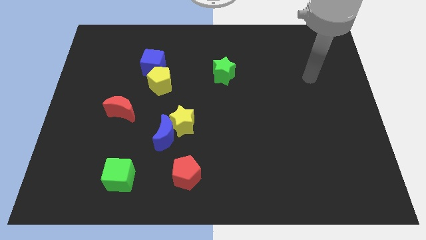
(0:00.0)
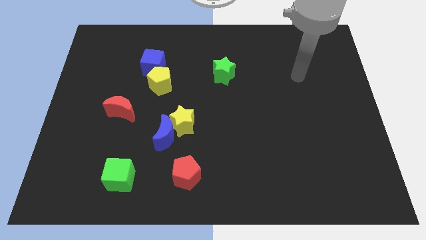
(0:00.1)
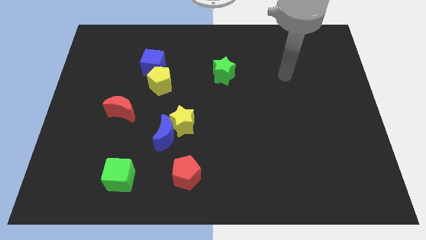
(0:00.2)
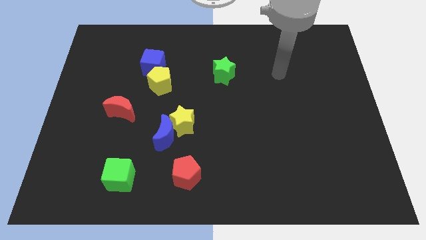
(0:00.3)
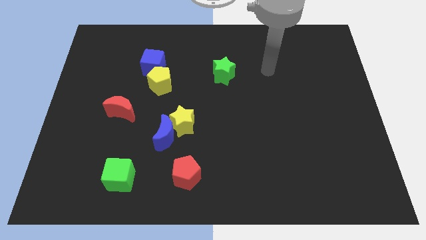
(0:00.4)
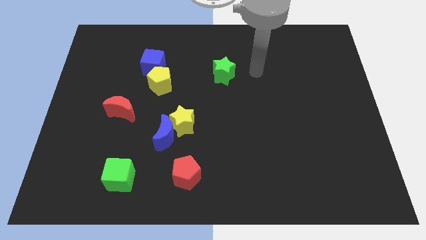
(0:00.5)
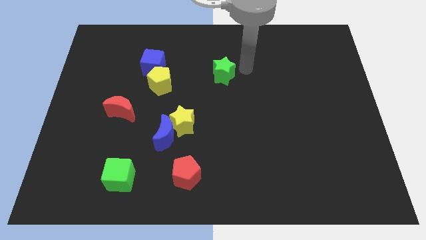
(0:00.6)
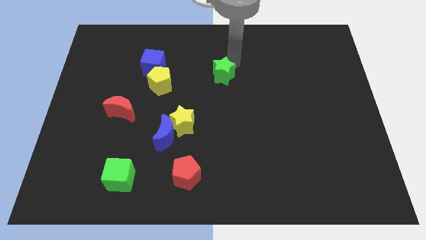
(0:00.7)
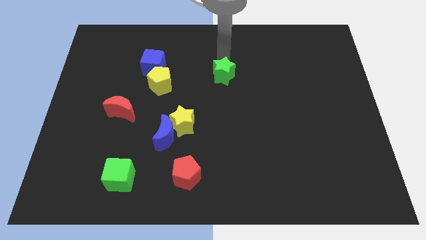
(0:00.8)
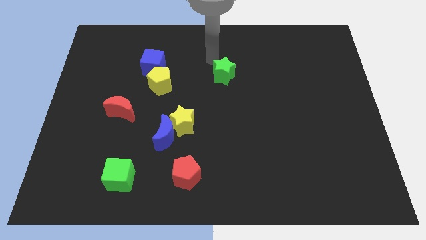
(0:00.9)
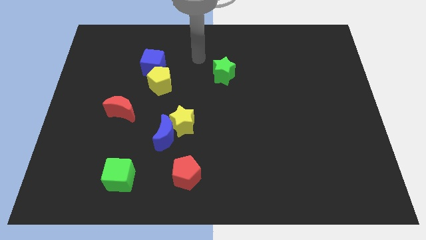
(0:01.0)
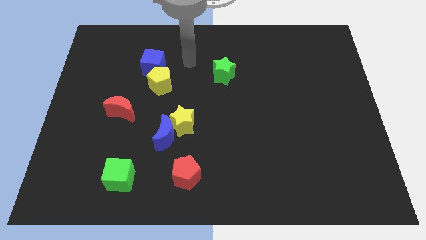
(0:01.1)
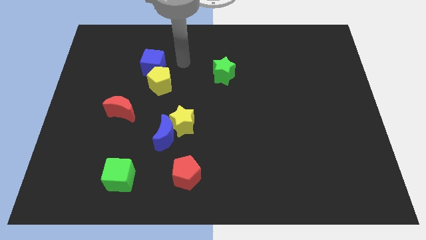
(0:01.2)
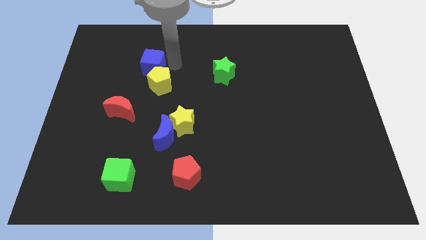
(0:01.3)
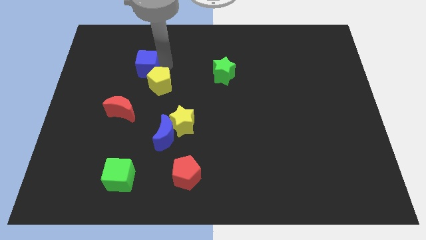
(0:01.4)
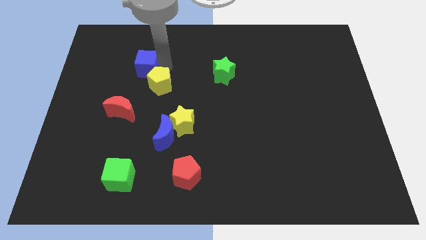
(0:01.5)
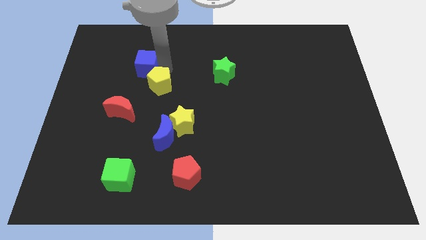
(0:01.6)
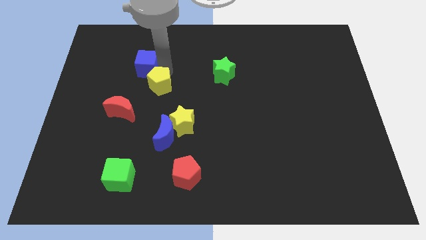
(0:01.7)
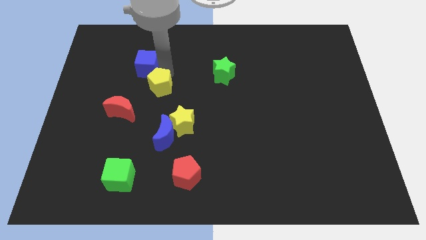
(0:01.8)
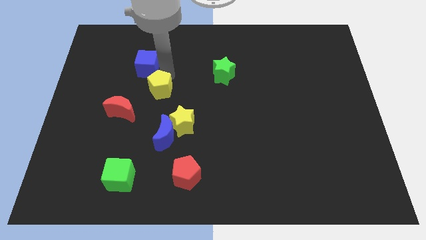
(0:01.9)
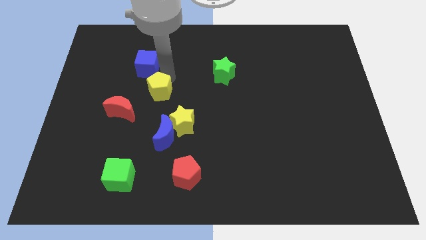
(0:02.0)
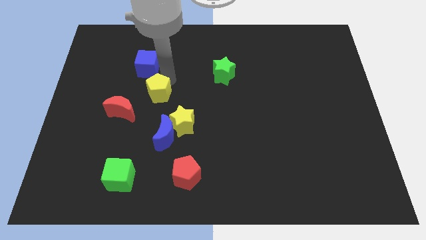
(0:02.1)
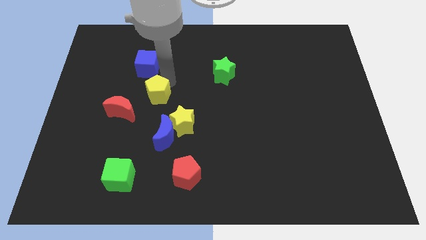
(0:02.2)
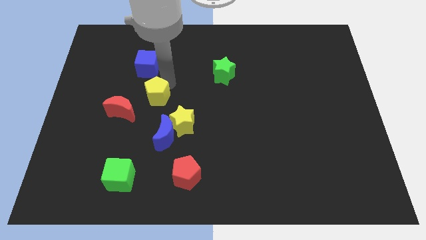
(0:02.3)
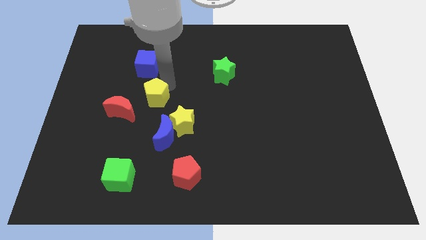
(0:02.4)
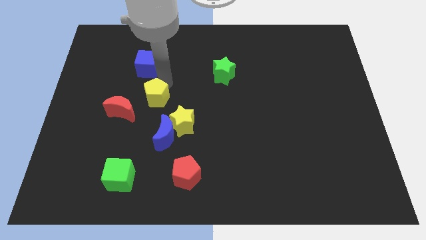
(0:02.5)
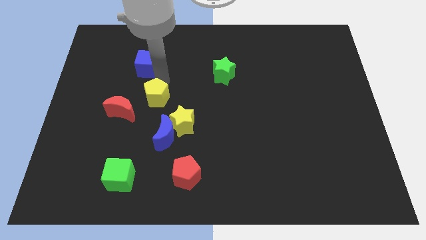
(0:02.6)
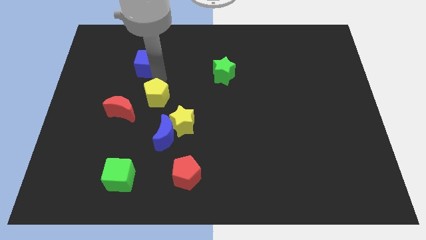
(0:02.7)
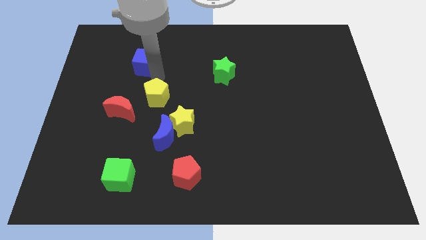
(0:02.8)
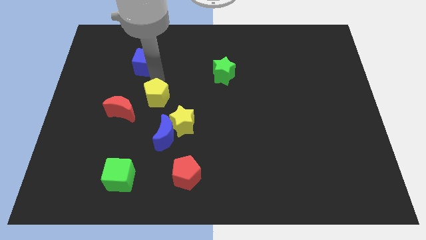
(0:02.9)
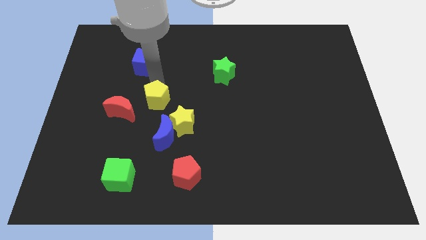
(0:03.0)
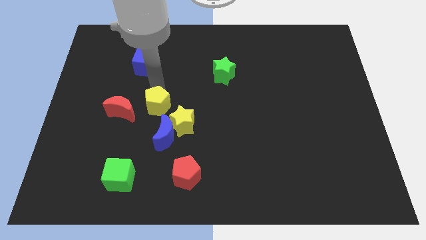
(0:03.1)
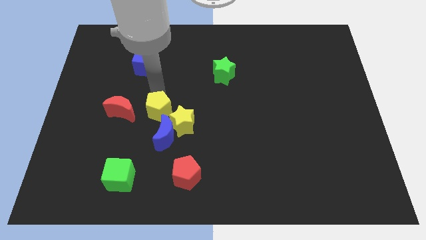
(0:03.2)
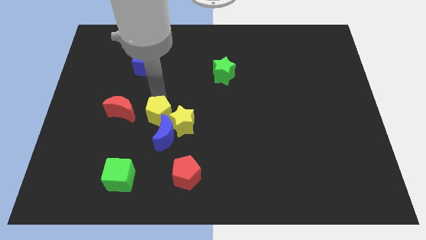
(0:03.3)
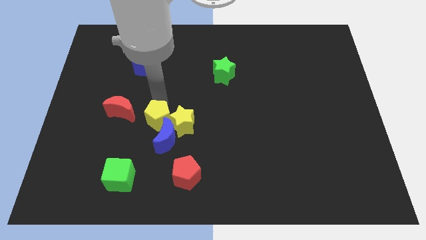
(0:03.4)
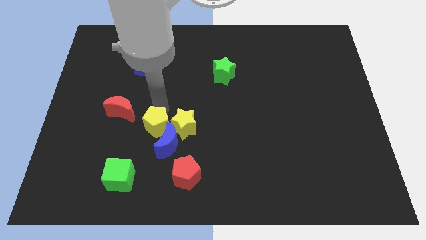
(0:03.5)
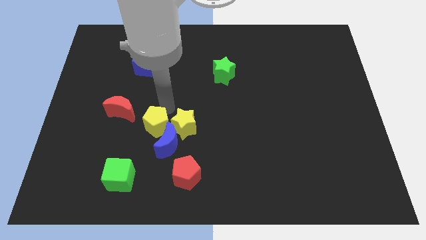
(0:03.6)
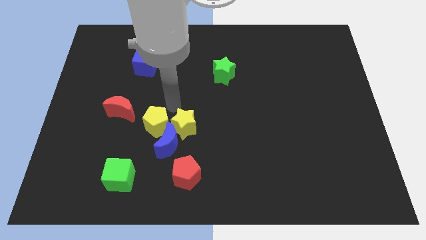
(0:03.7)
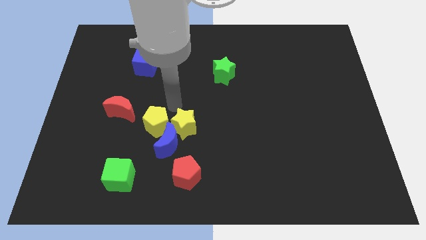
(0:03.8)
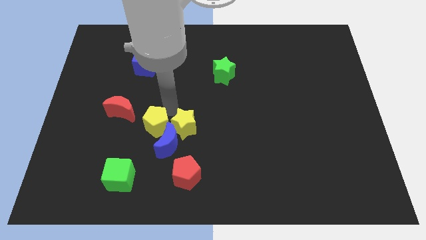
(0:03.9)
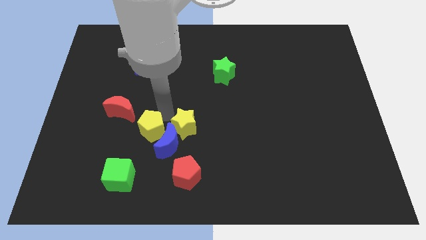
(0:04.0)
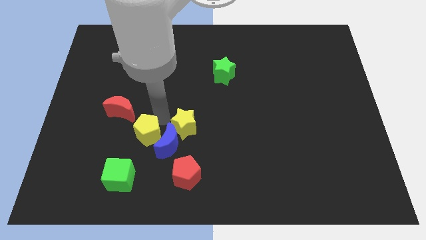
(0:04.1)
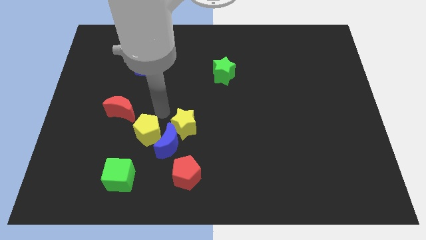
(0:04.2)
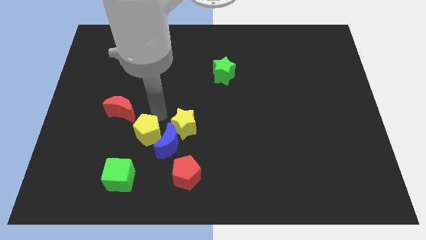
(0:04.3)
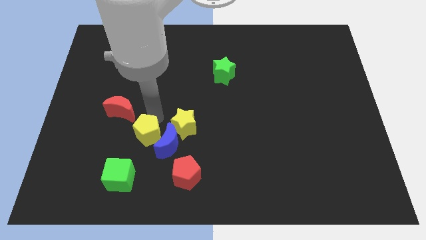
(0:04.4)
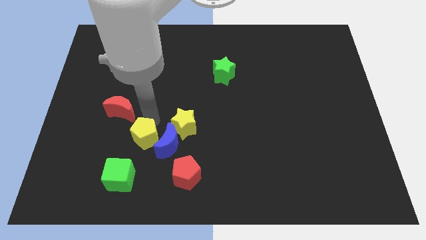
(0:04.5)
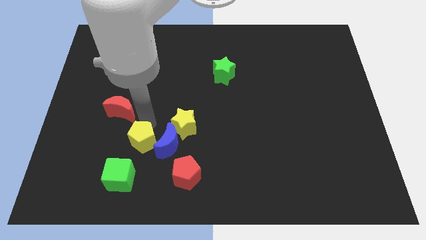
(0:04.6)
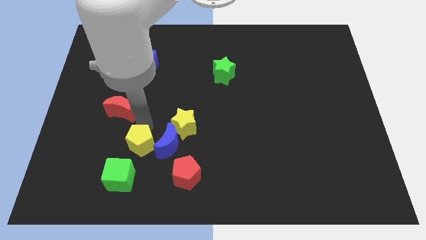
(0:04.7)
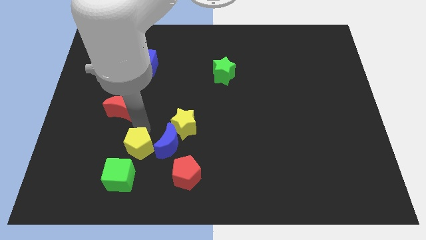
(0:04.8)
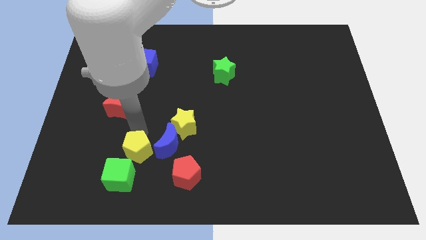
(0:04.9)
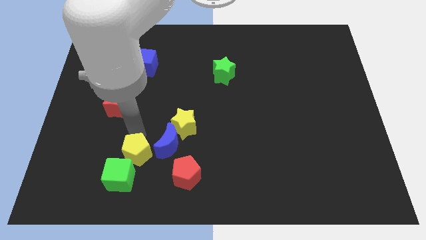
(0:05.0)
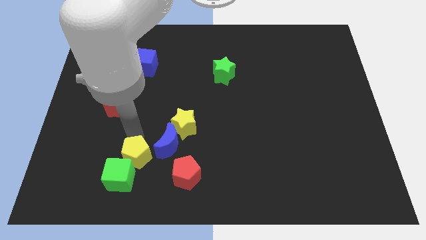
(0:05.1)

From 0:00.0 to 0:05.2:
put the yellow pentagon next to the green cube

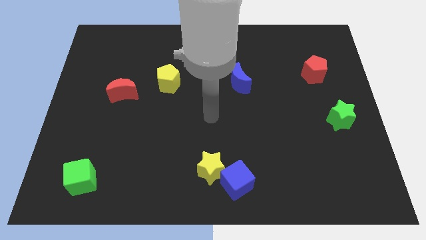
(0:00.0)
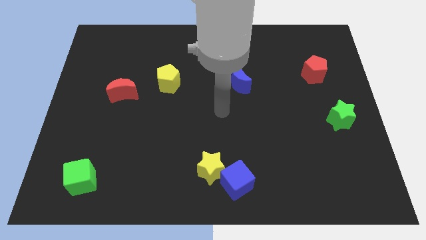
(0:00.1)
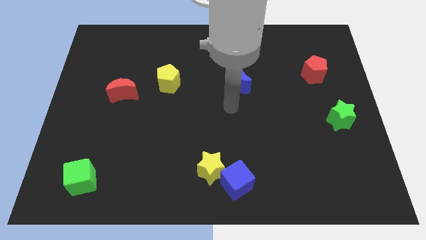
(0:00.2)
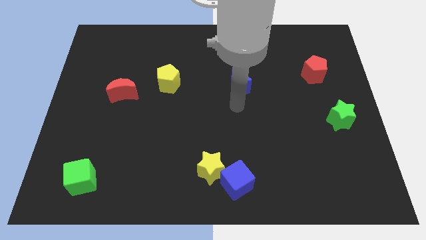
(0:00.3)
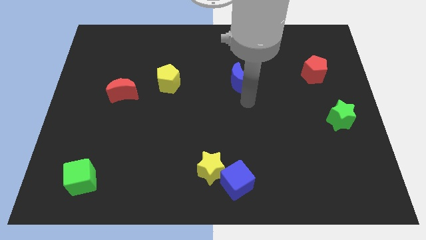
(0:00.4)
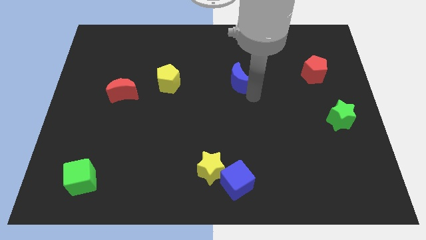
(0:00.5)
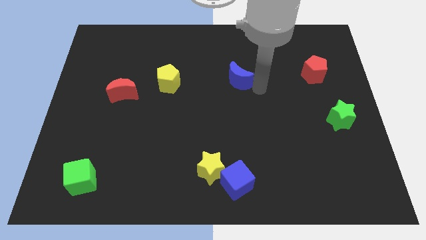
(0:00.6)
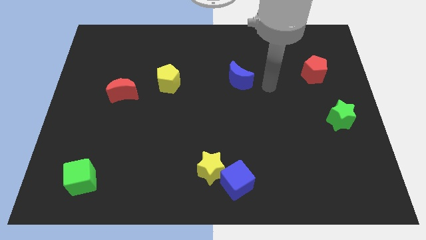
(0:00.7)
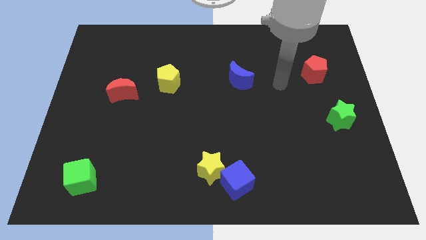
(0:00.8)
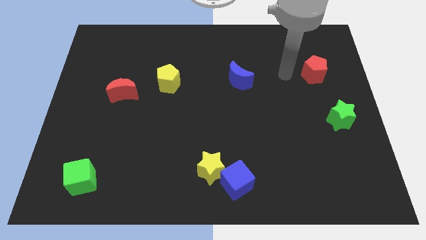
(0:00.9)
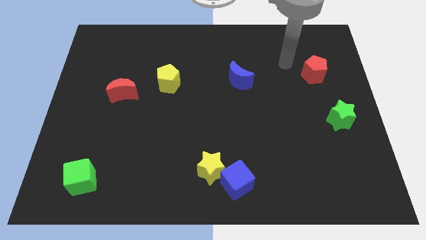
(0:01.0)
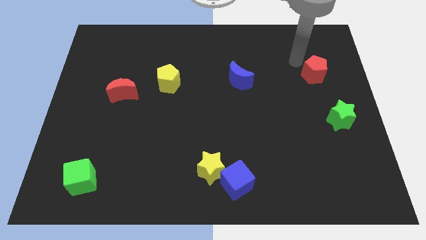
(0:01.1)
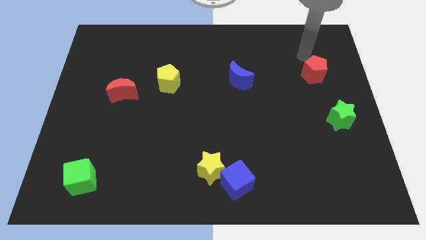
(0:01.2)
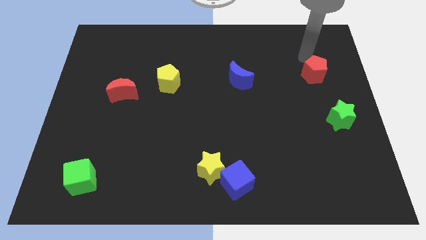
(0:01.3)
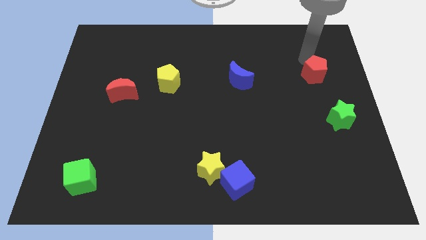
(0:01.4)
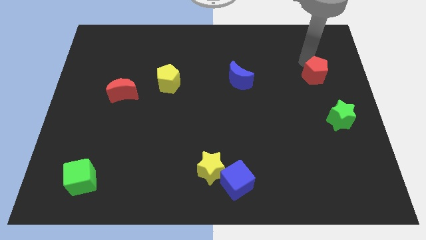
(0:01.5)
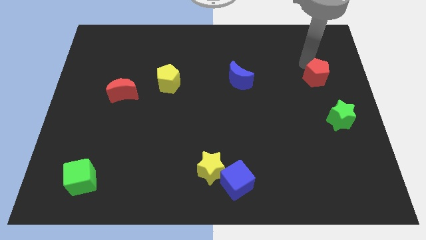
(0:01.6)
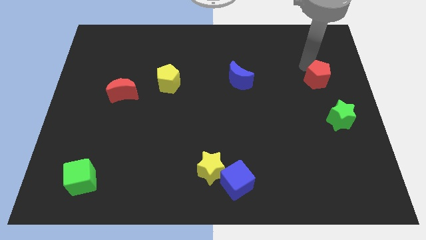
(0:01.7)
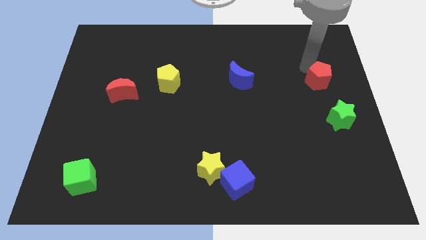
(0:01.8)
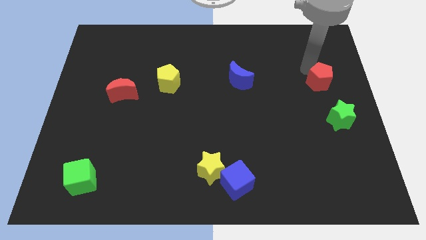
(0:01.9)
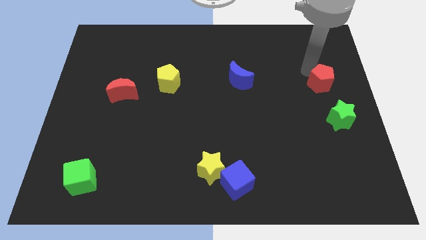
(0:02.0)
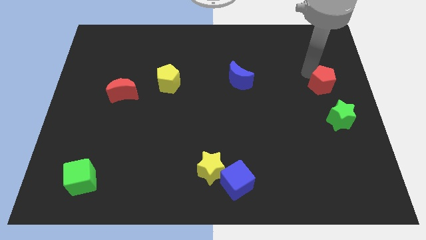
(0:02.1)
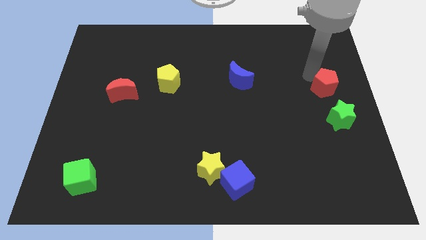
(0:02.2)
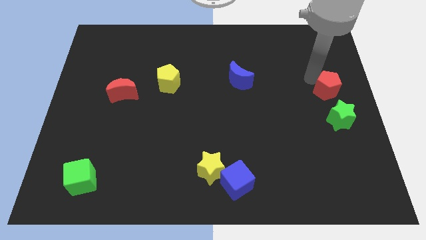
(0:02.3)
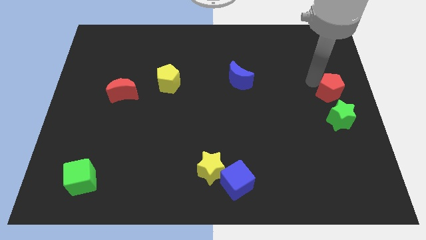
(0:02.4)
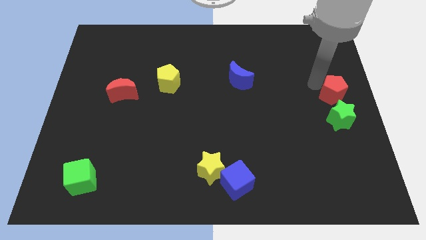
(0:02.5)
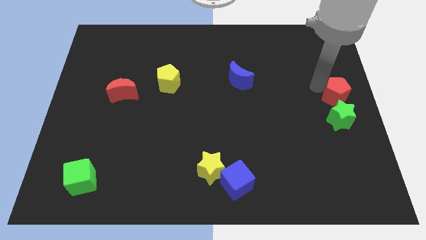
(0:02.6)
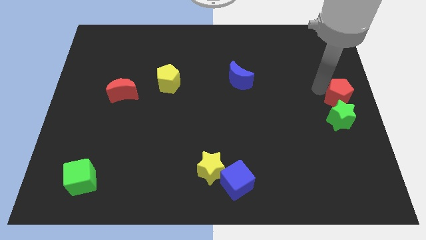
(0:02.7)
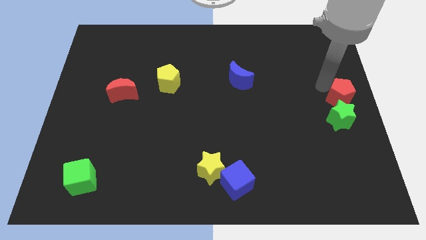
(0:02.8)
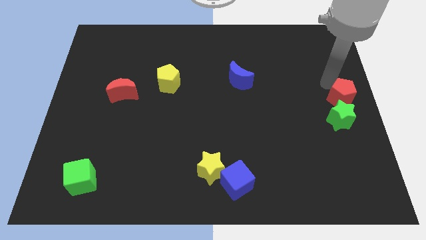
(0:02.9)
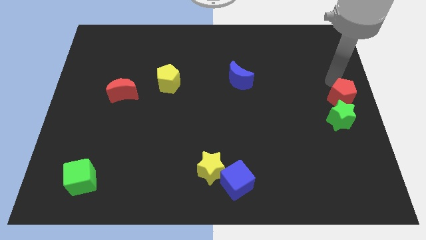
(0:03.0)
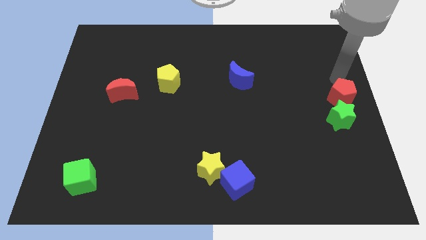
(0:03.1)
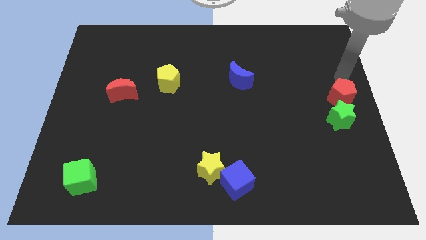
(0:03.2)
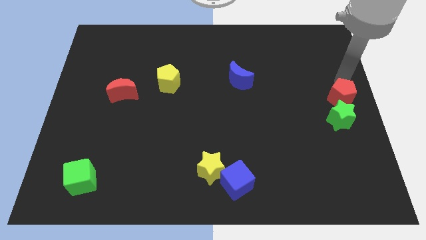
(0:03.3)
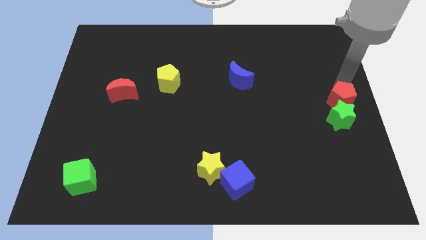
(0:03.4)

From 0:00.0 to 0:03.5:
put the red pentagon close to the green star
